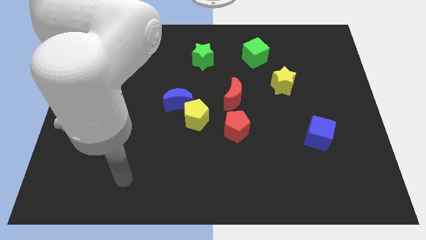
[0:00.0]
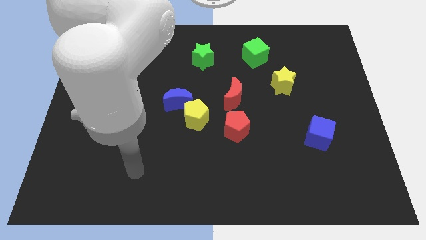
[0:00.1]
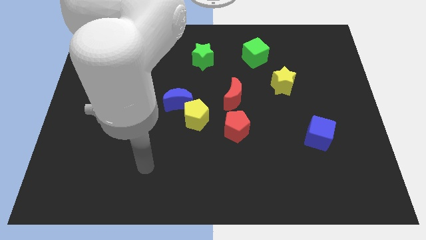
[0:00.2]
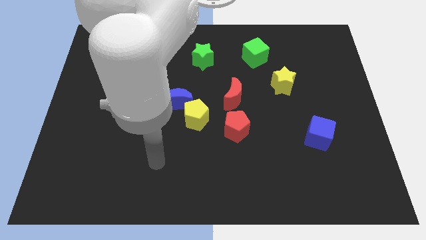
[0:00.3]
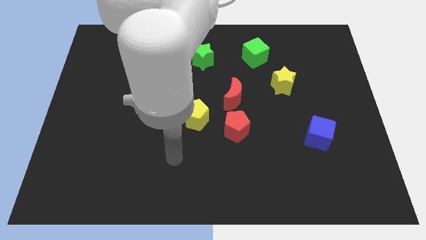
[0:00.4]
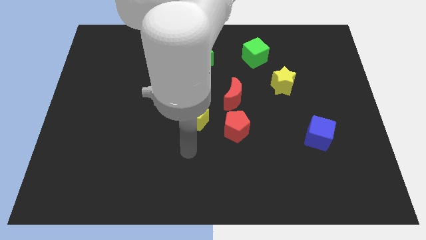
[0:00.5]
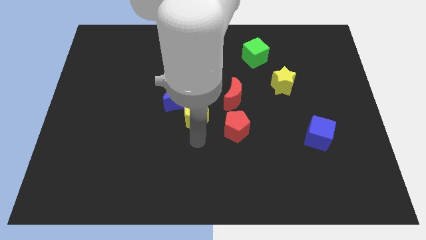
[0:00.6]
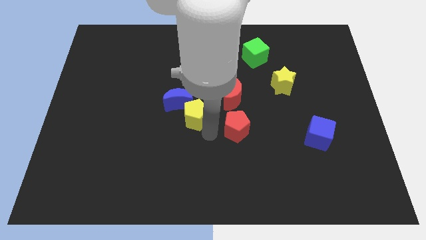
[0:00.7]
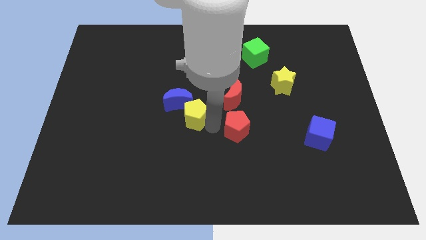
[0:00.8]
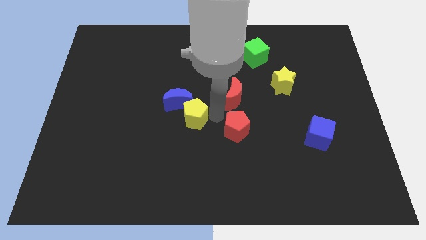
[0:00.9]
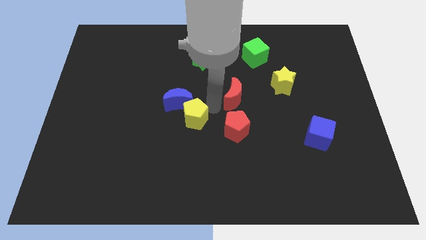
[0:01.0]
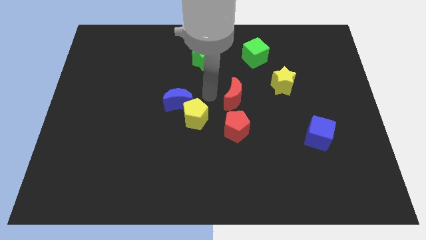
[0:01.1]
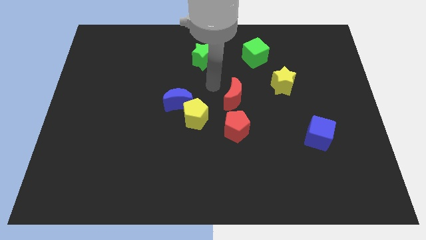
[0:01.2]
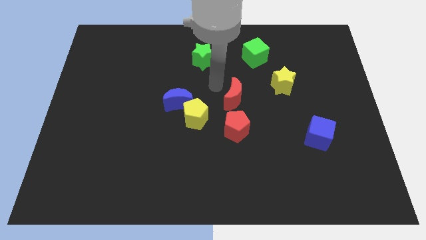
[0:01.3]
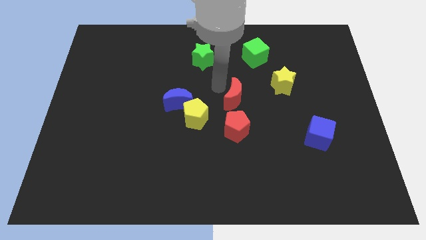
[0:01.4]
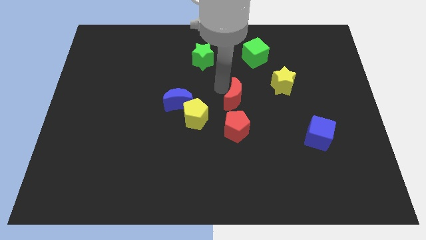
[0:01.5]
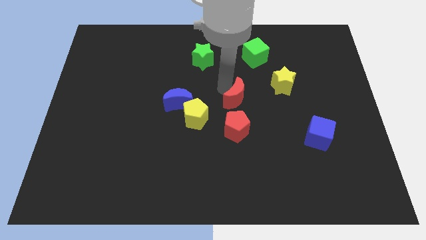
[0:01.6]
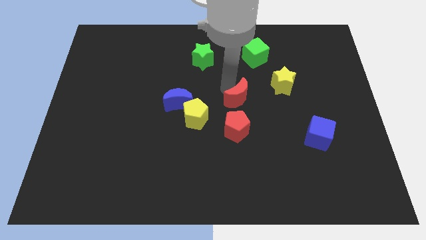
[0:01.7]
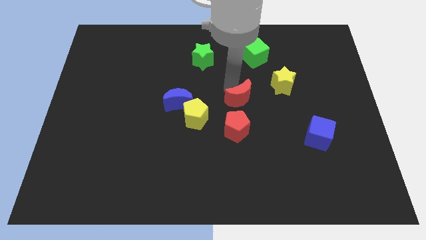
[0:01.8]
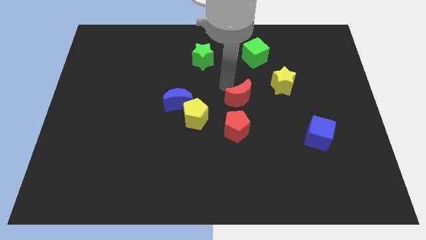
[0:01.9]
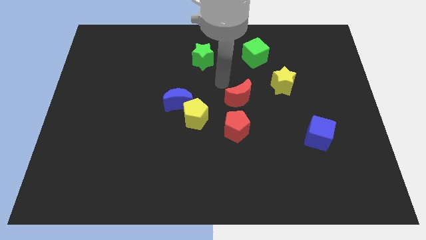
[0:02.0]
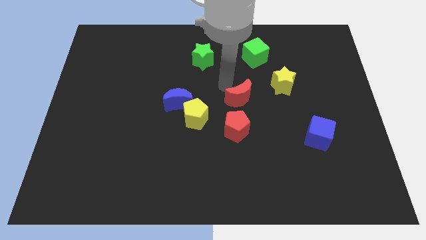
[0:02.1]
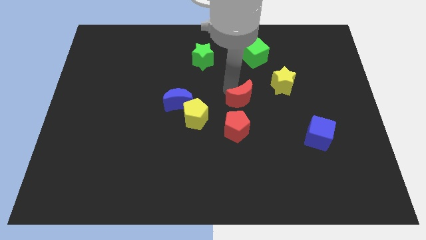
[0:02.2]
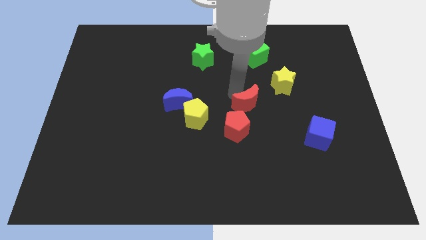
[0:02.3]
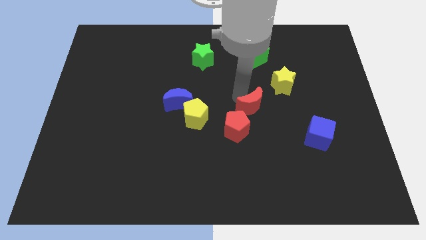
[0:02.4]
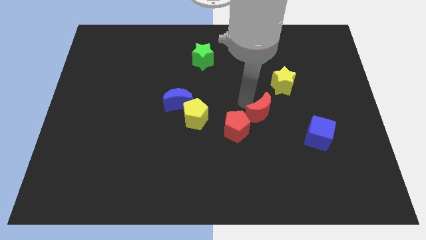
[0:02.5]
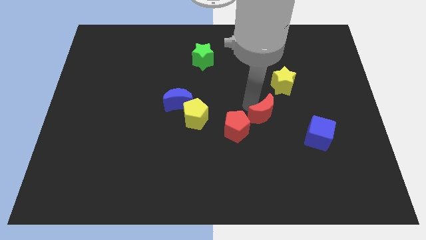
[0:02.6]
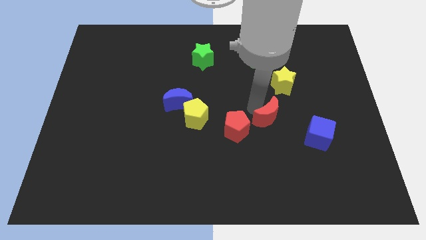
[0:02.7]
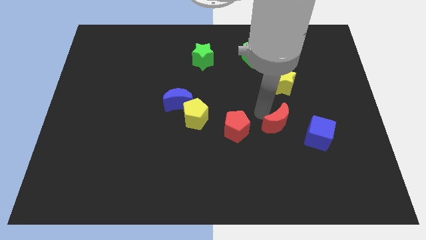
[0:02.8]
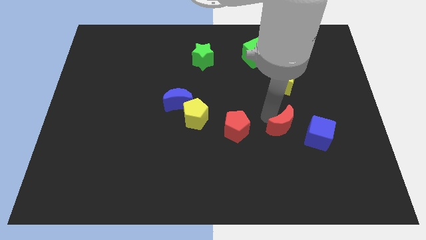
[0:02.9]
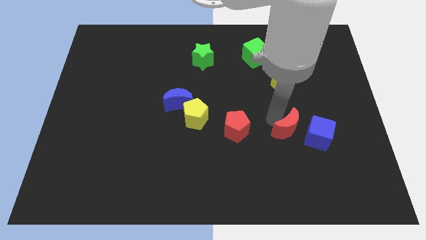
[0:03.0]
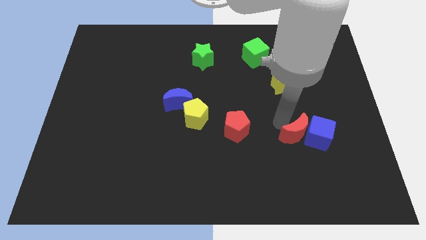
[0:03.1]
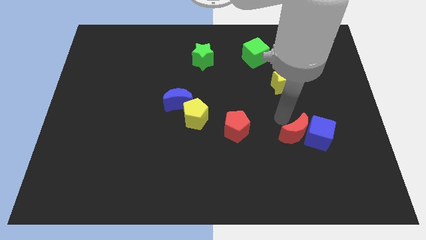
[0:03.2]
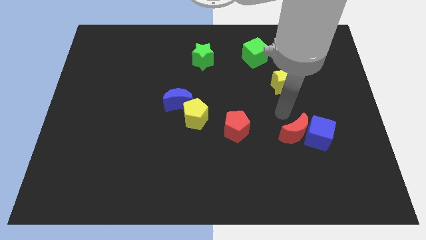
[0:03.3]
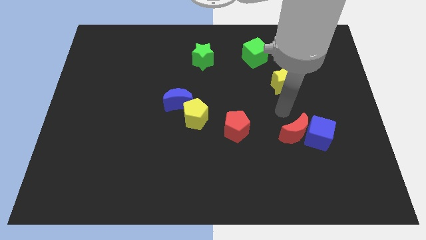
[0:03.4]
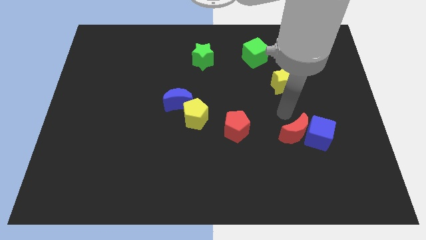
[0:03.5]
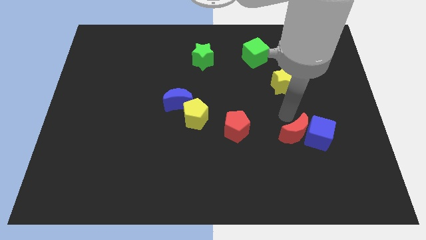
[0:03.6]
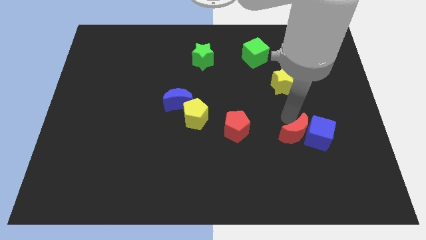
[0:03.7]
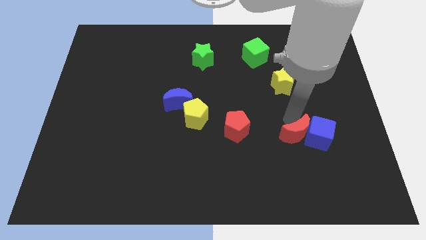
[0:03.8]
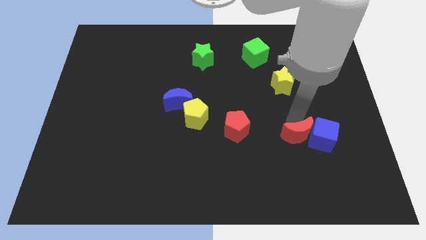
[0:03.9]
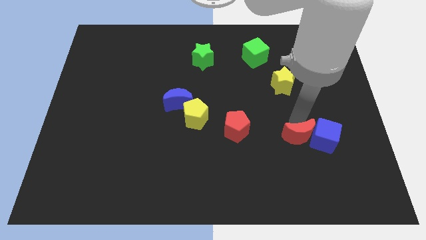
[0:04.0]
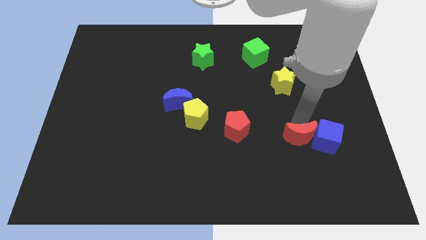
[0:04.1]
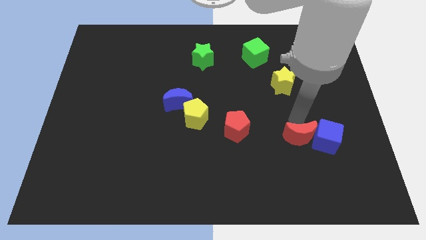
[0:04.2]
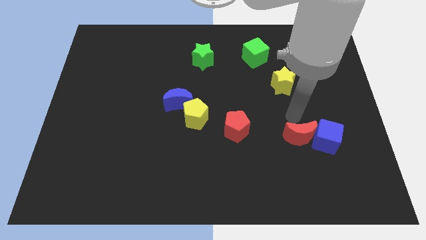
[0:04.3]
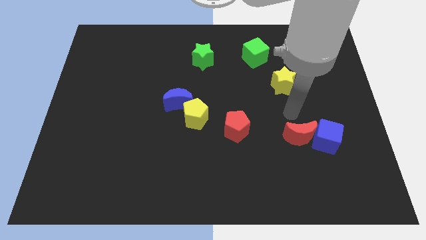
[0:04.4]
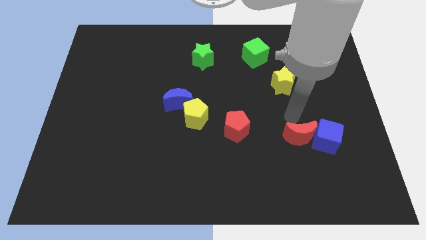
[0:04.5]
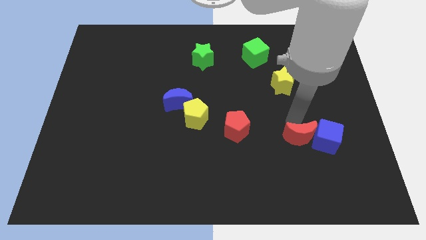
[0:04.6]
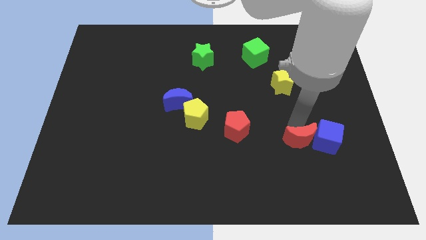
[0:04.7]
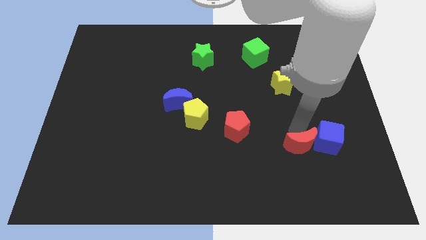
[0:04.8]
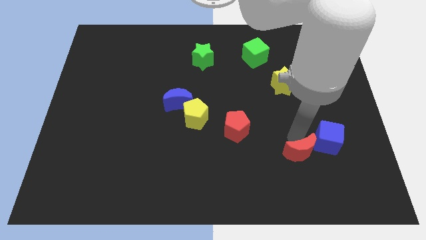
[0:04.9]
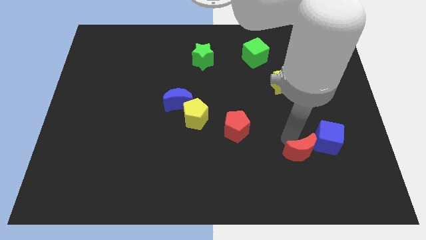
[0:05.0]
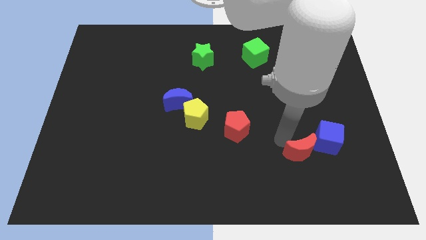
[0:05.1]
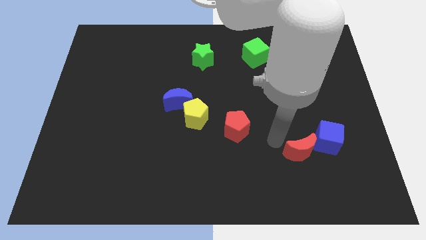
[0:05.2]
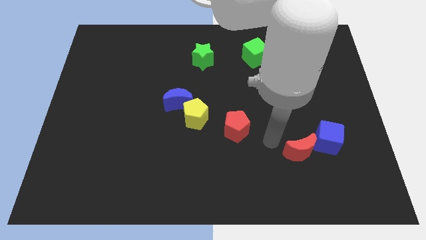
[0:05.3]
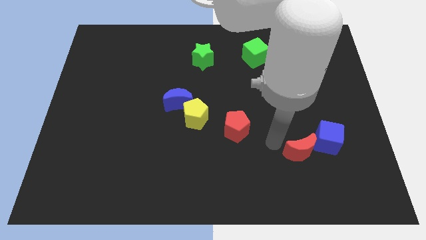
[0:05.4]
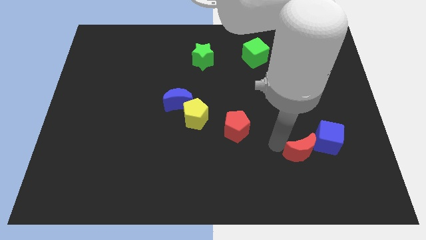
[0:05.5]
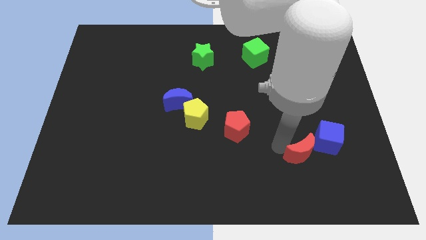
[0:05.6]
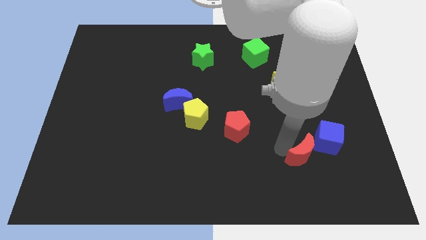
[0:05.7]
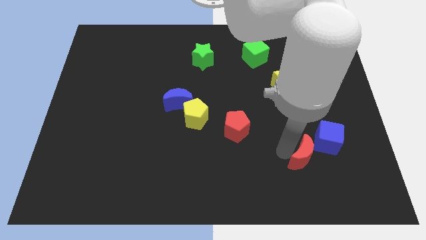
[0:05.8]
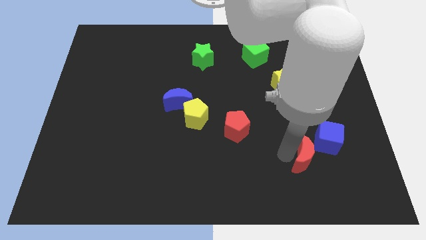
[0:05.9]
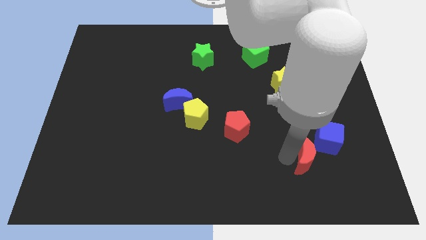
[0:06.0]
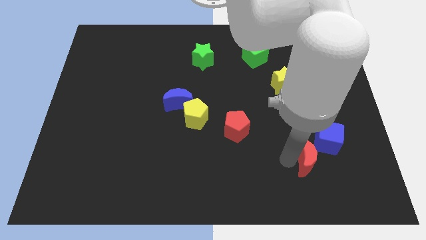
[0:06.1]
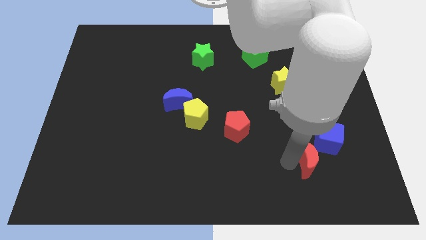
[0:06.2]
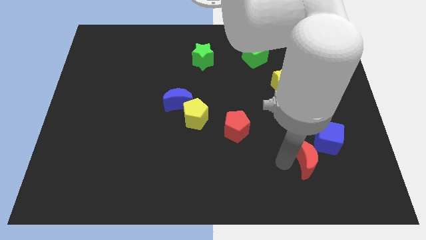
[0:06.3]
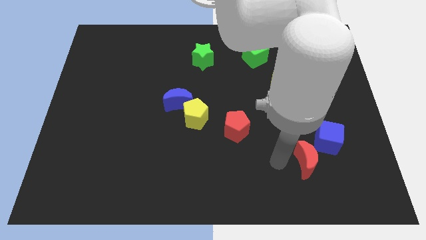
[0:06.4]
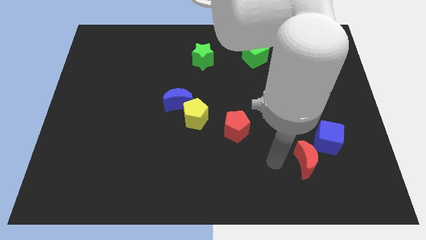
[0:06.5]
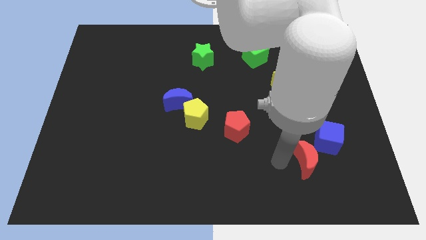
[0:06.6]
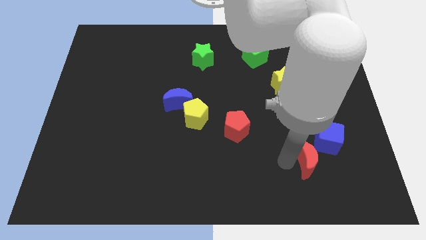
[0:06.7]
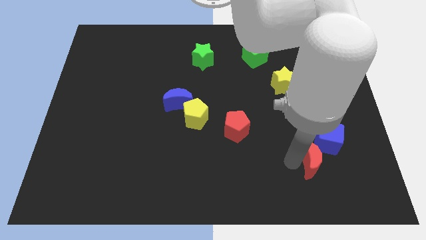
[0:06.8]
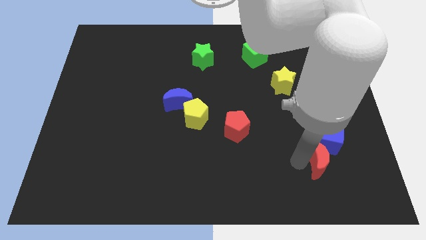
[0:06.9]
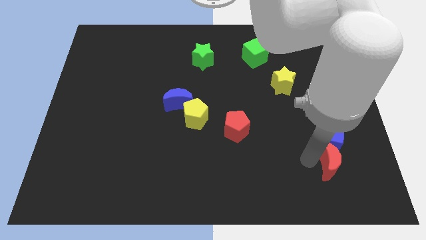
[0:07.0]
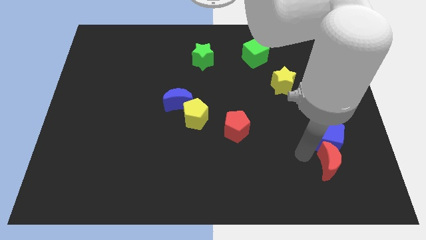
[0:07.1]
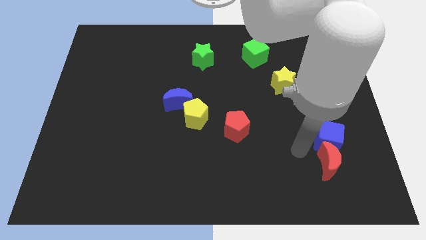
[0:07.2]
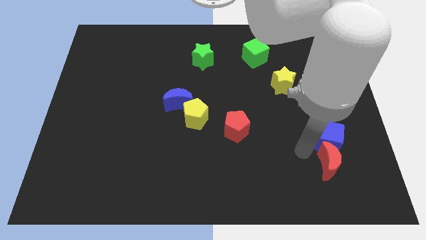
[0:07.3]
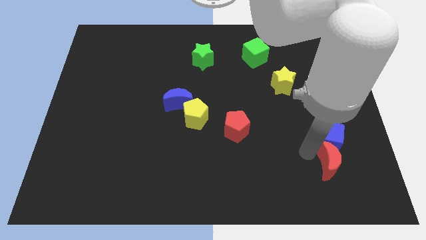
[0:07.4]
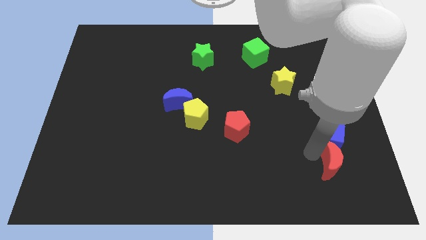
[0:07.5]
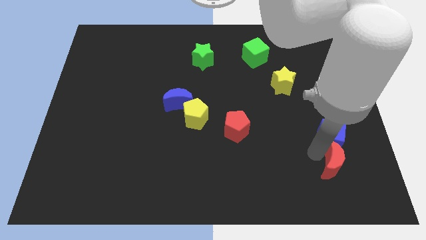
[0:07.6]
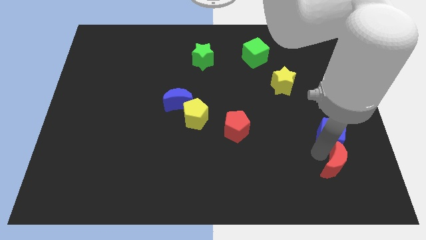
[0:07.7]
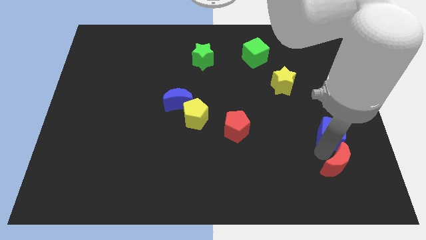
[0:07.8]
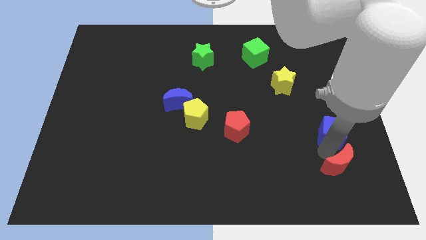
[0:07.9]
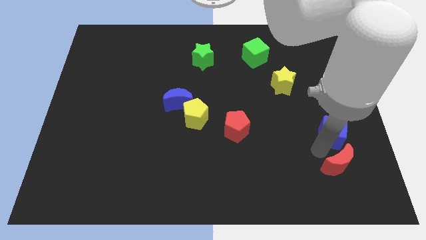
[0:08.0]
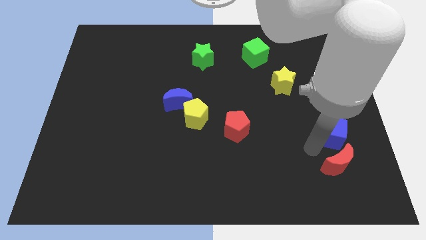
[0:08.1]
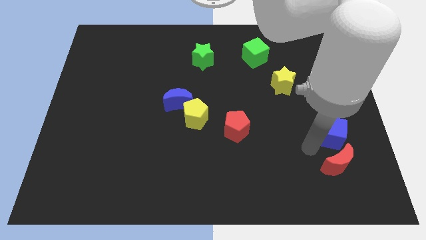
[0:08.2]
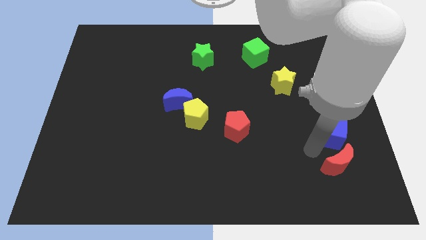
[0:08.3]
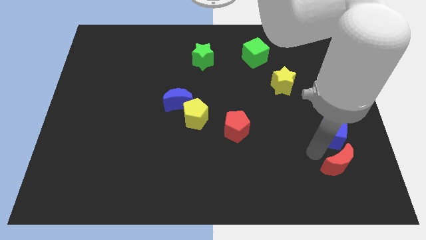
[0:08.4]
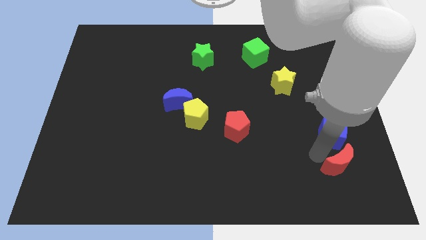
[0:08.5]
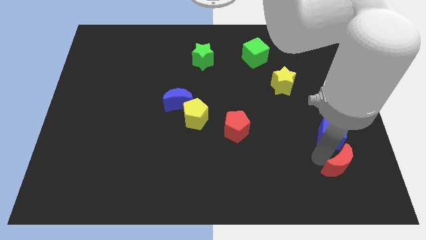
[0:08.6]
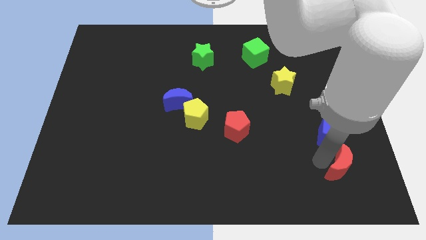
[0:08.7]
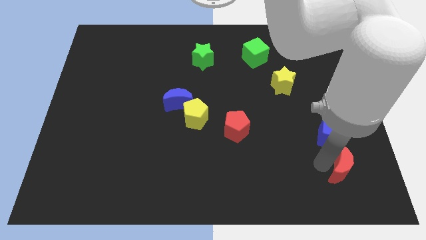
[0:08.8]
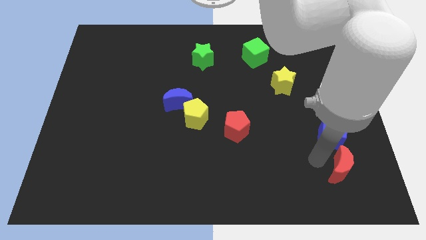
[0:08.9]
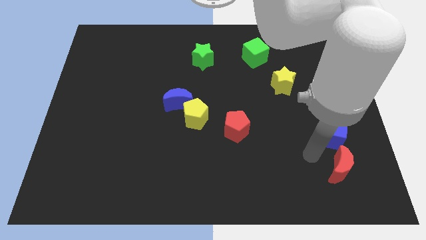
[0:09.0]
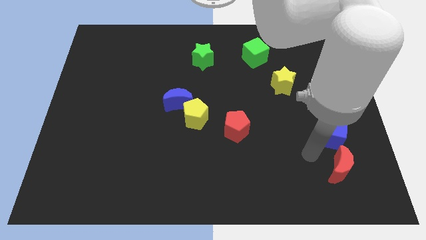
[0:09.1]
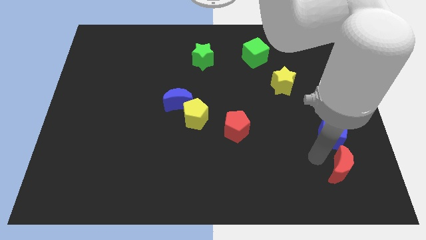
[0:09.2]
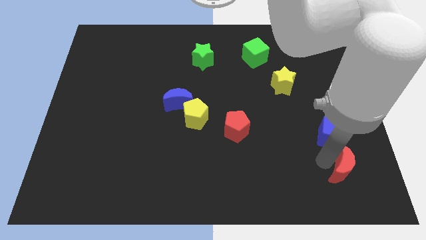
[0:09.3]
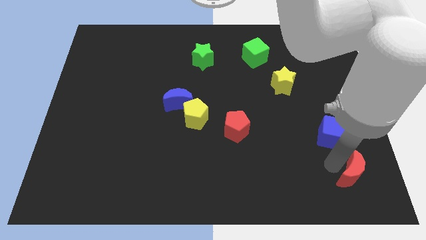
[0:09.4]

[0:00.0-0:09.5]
put the red moon to the lower right corner
